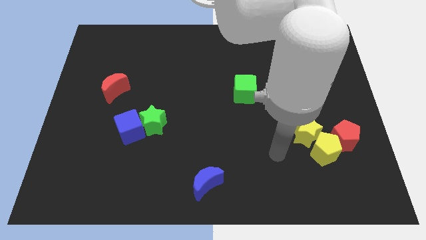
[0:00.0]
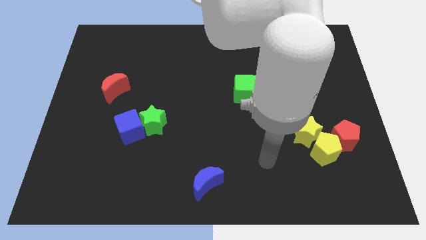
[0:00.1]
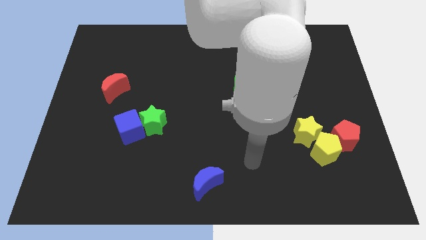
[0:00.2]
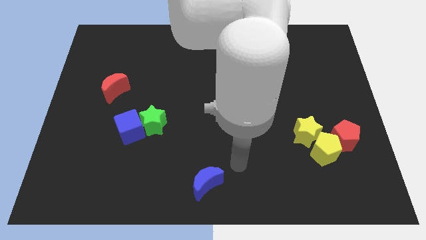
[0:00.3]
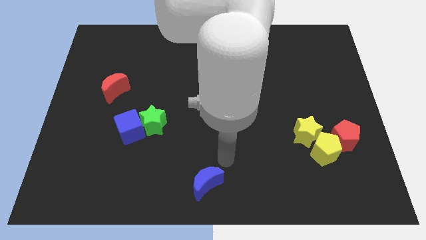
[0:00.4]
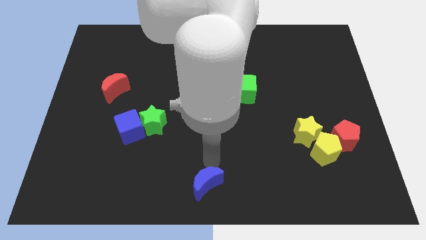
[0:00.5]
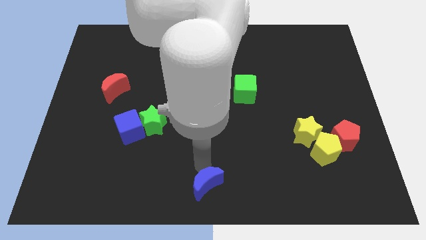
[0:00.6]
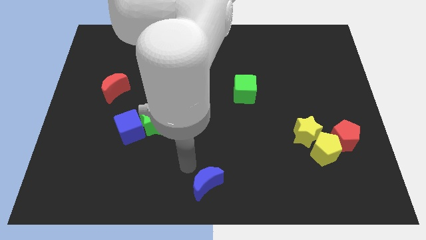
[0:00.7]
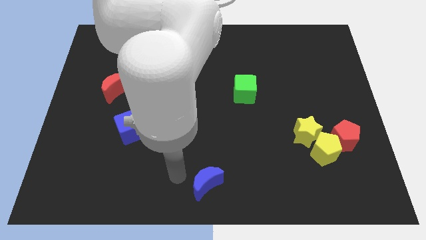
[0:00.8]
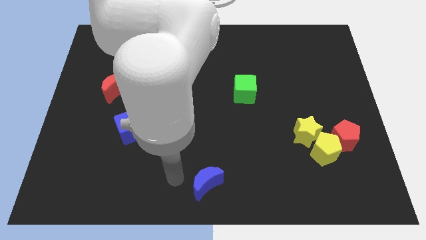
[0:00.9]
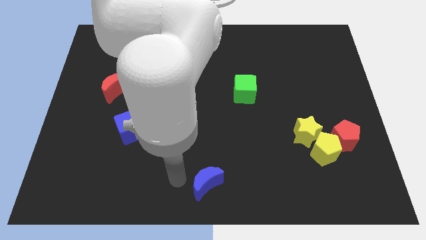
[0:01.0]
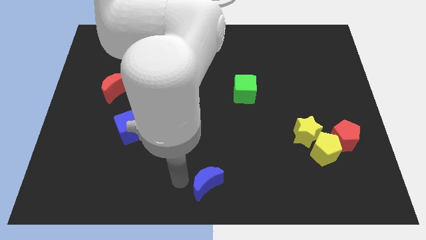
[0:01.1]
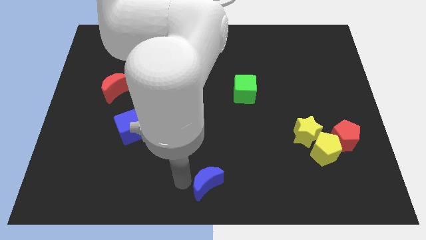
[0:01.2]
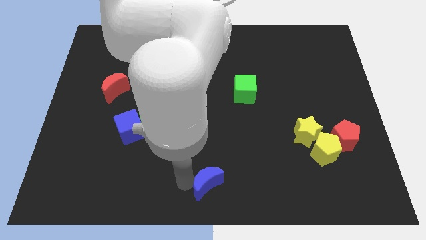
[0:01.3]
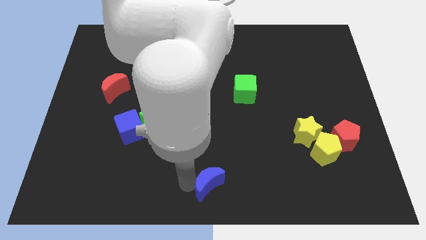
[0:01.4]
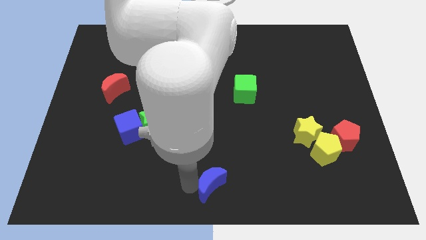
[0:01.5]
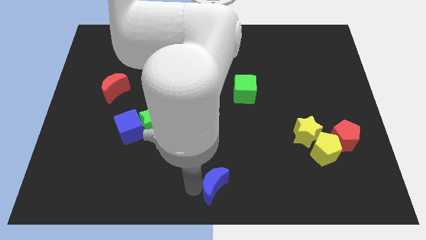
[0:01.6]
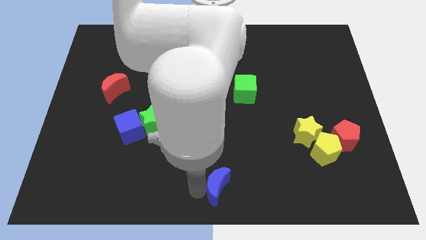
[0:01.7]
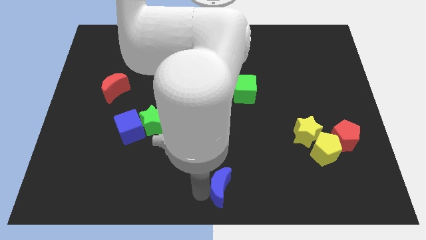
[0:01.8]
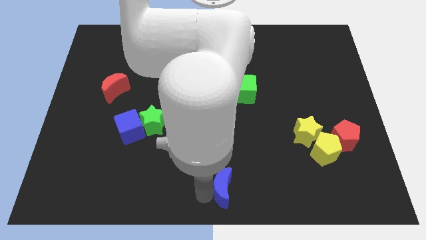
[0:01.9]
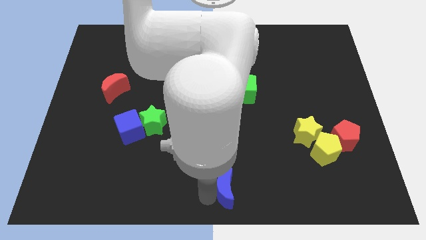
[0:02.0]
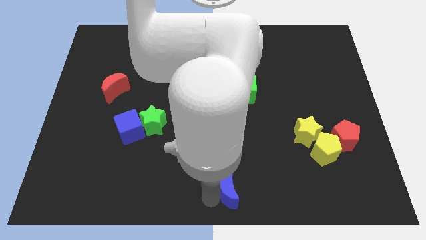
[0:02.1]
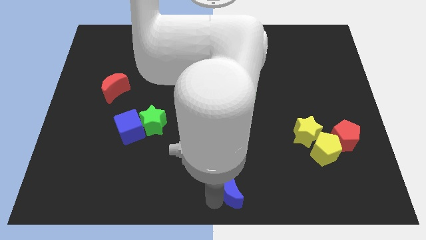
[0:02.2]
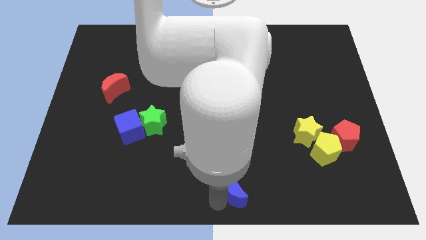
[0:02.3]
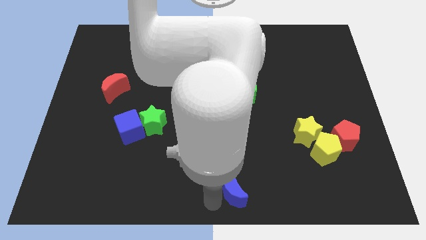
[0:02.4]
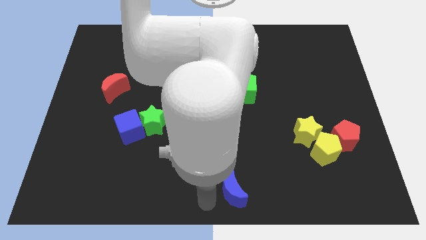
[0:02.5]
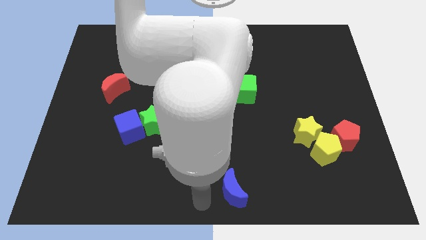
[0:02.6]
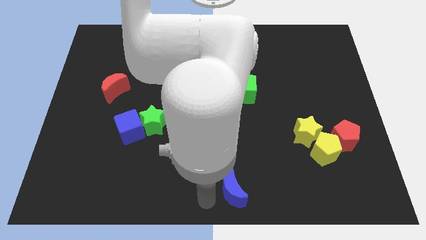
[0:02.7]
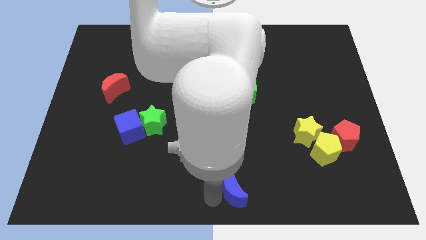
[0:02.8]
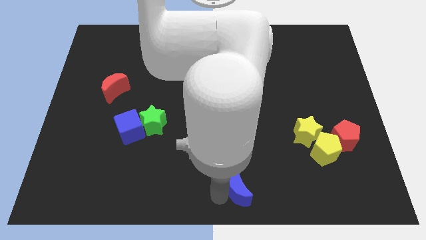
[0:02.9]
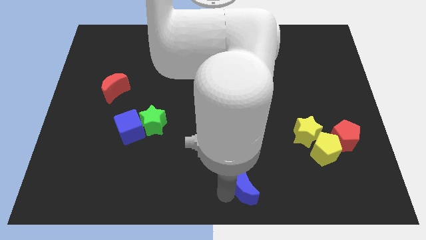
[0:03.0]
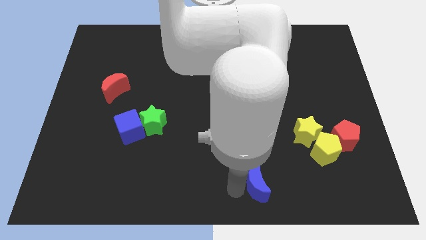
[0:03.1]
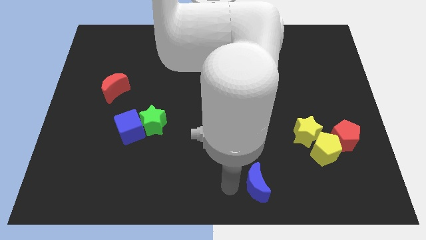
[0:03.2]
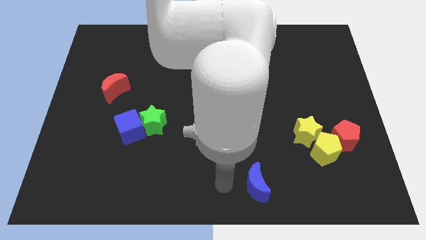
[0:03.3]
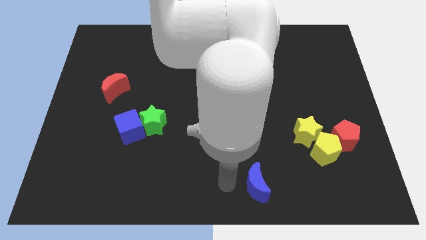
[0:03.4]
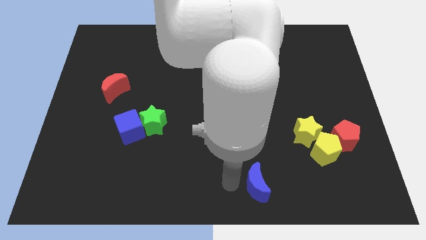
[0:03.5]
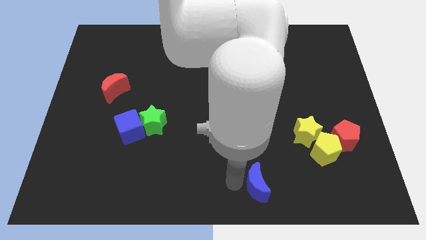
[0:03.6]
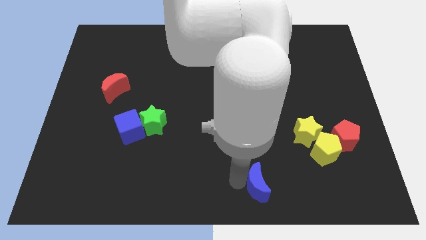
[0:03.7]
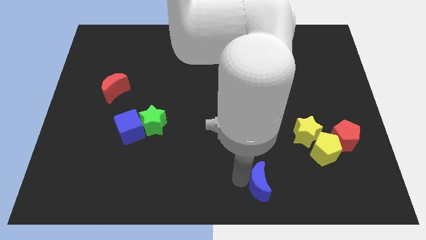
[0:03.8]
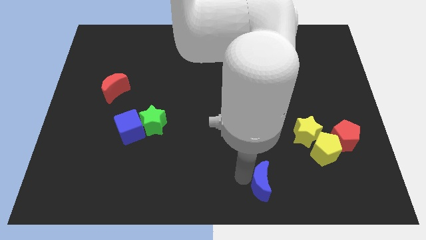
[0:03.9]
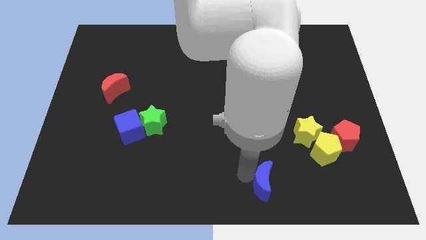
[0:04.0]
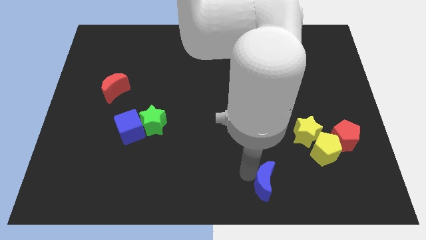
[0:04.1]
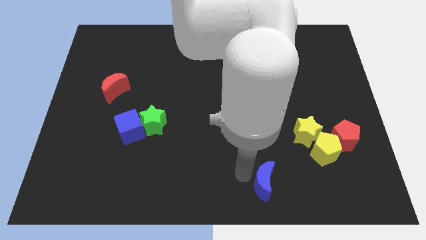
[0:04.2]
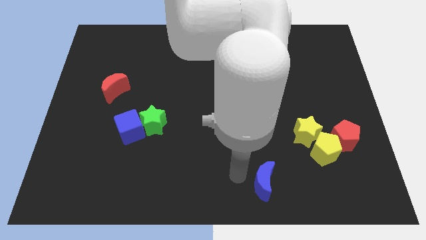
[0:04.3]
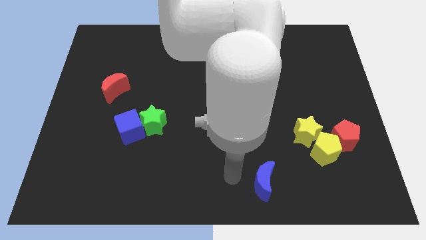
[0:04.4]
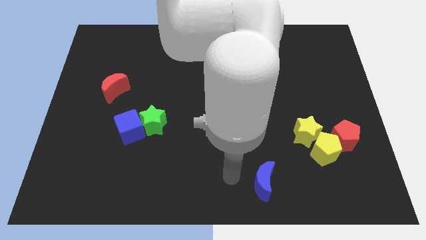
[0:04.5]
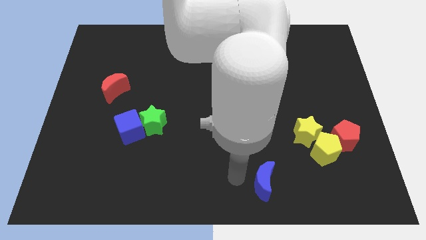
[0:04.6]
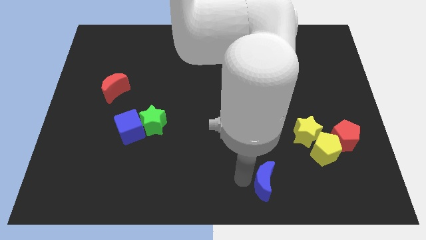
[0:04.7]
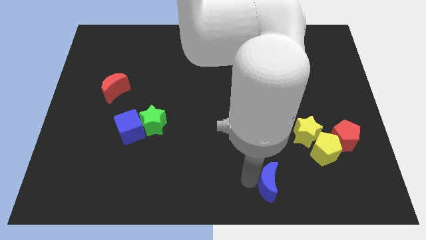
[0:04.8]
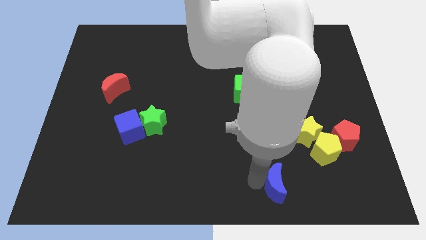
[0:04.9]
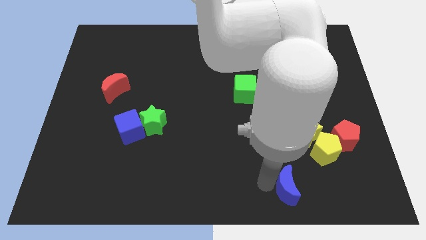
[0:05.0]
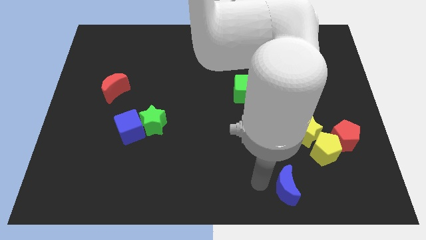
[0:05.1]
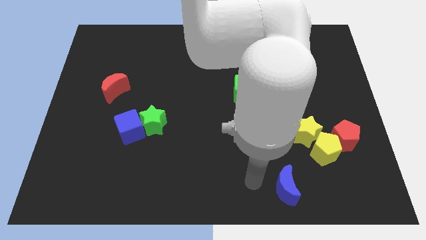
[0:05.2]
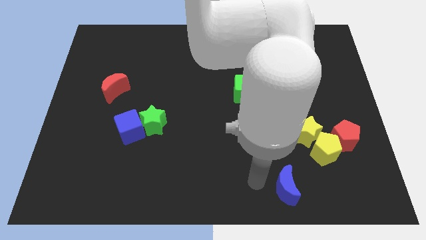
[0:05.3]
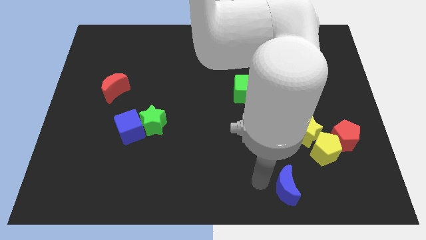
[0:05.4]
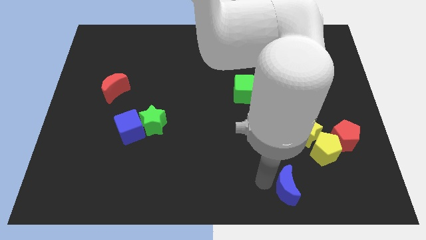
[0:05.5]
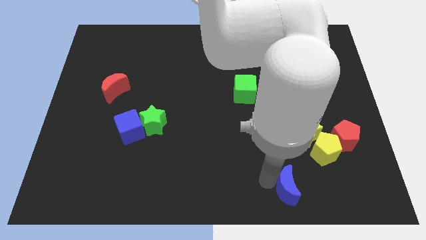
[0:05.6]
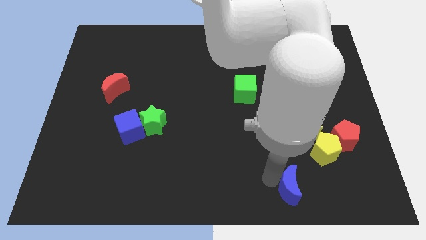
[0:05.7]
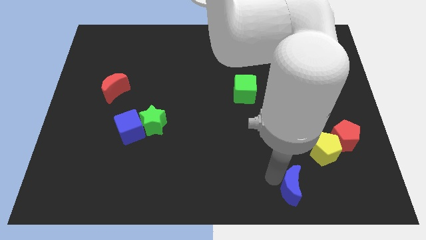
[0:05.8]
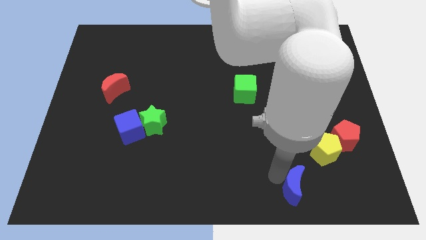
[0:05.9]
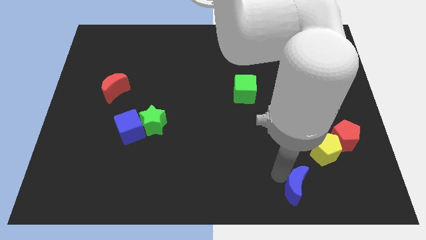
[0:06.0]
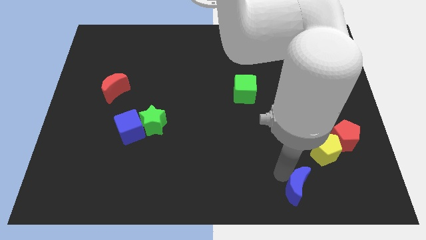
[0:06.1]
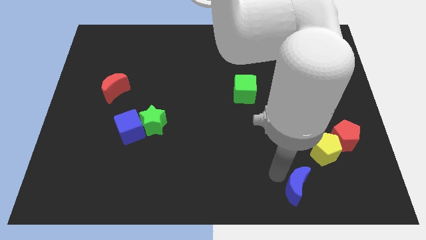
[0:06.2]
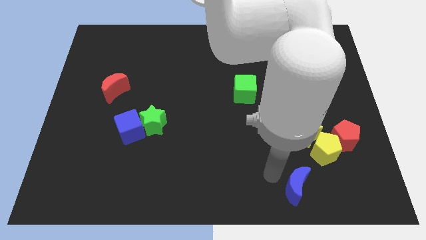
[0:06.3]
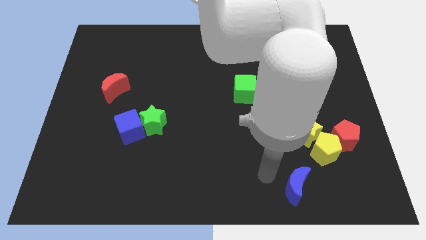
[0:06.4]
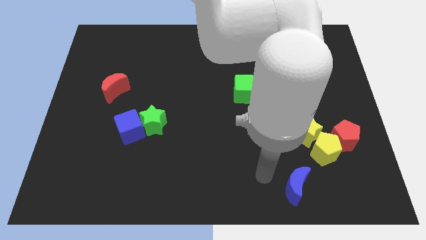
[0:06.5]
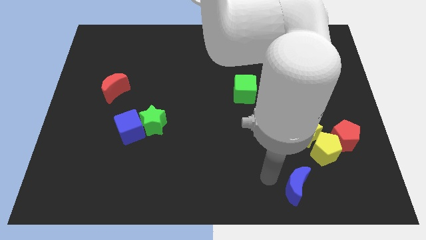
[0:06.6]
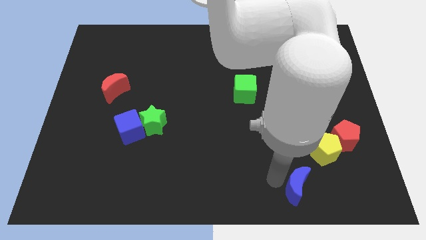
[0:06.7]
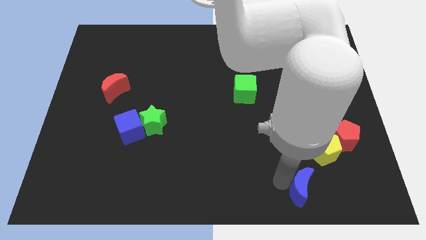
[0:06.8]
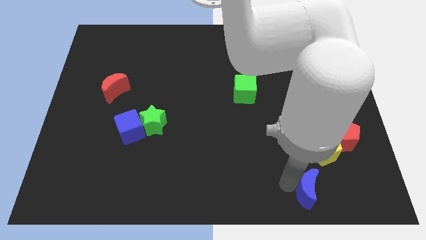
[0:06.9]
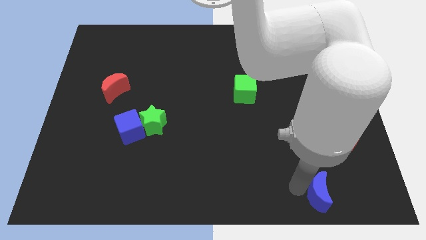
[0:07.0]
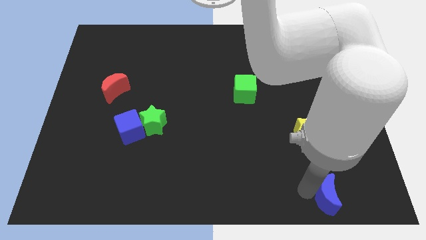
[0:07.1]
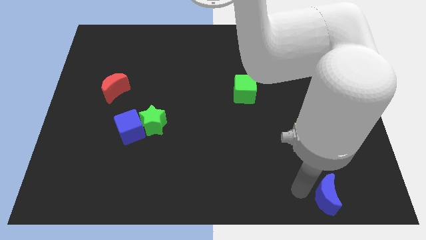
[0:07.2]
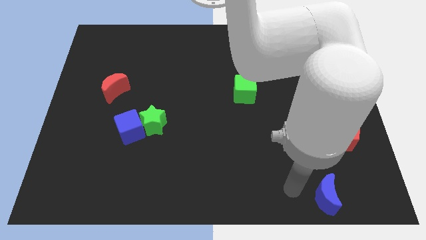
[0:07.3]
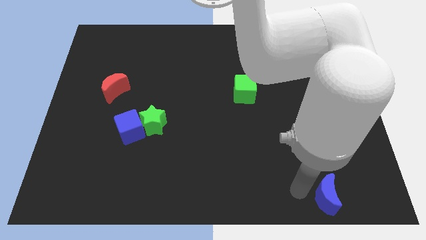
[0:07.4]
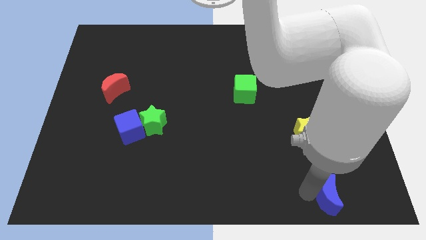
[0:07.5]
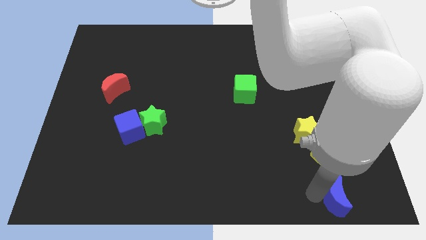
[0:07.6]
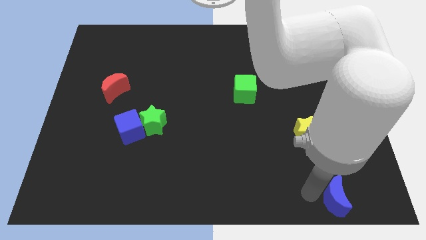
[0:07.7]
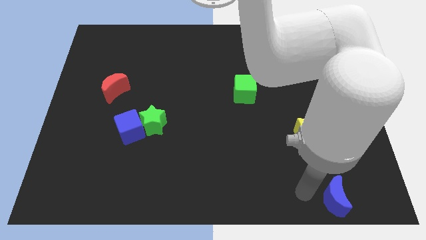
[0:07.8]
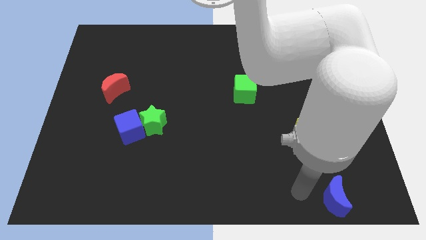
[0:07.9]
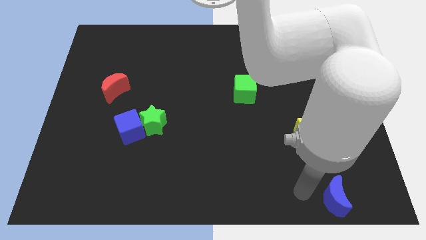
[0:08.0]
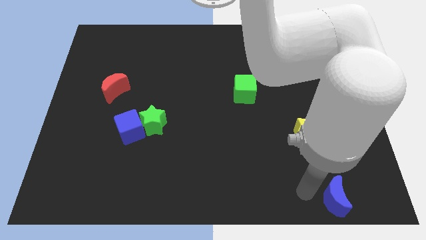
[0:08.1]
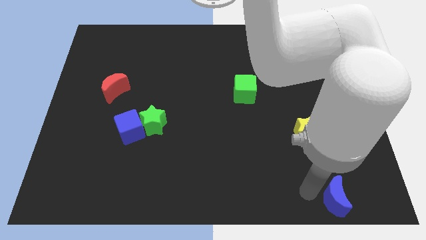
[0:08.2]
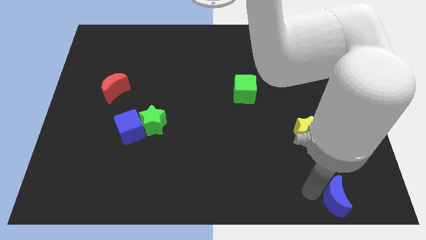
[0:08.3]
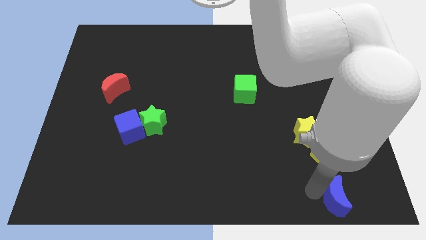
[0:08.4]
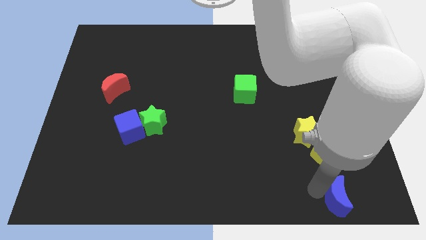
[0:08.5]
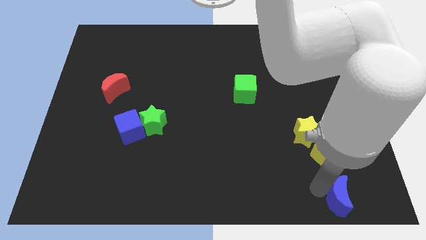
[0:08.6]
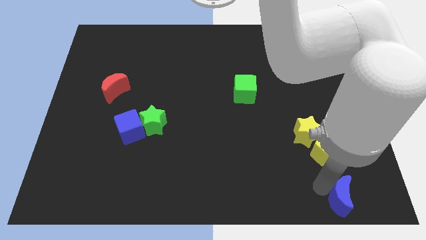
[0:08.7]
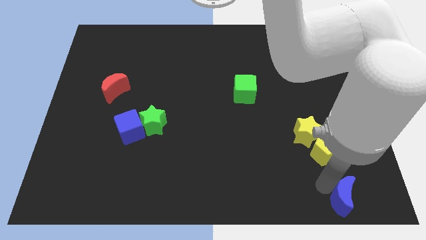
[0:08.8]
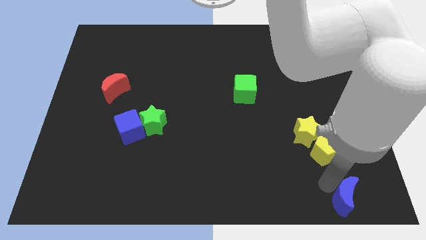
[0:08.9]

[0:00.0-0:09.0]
put the blue moon to the bottom right of the board
